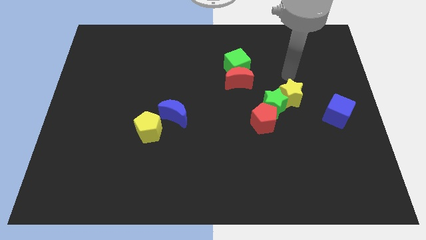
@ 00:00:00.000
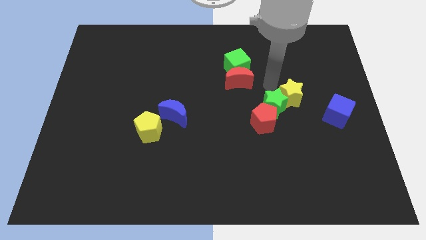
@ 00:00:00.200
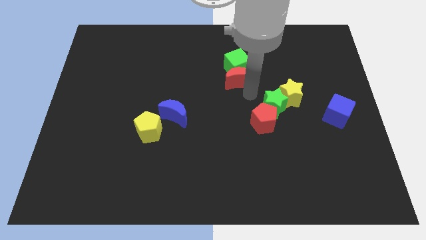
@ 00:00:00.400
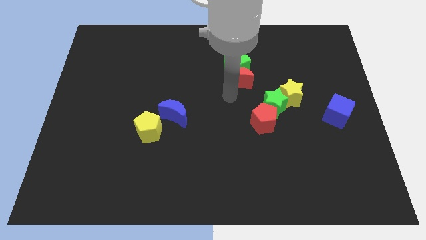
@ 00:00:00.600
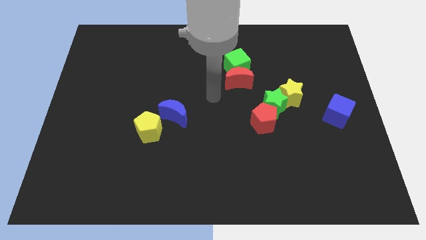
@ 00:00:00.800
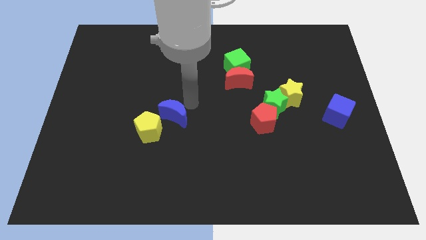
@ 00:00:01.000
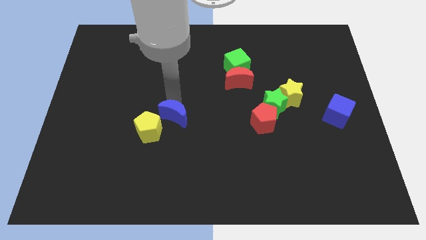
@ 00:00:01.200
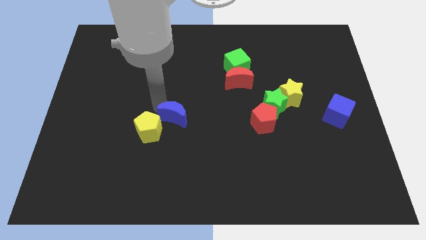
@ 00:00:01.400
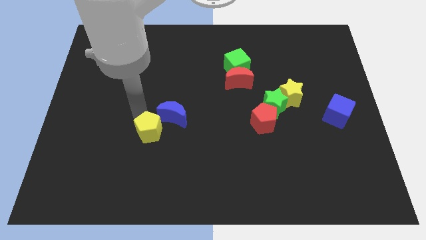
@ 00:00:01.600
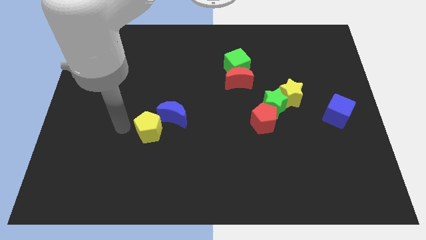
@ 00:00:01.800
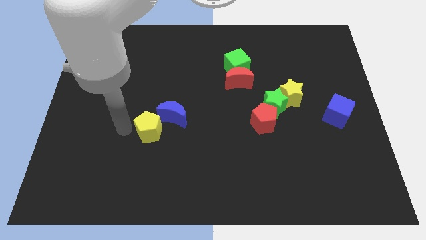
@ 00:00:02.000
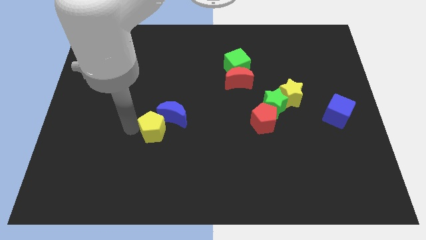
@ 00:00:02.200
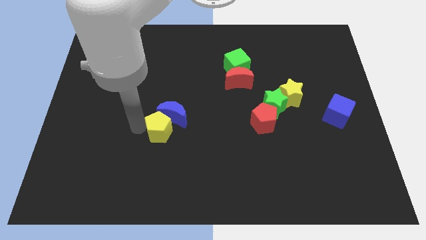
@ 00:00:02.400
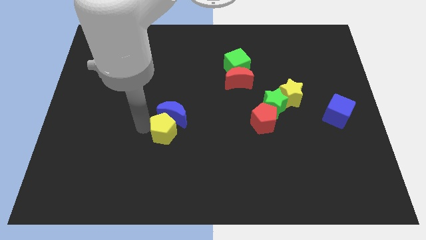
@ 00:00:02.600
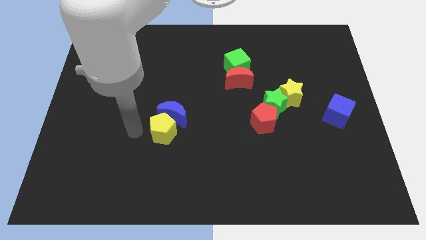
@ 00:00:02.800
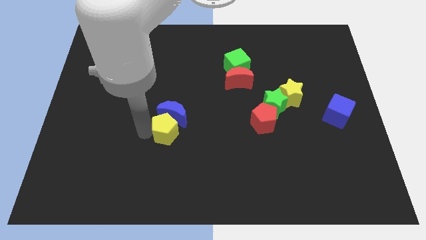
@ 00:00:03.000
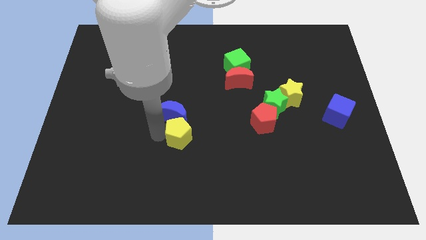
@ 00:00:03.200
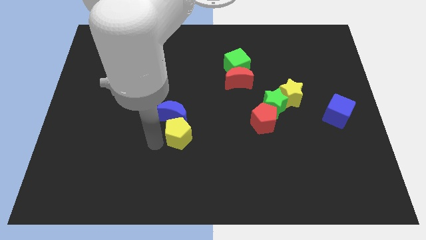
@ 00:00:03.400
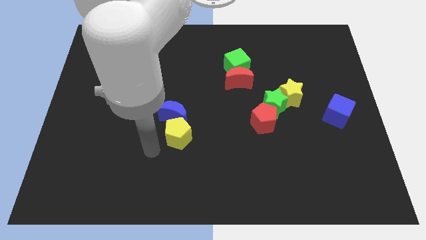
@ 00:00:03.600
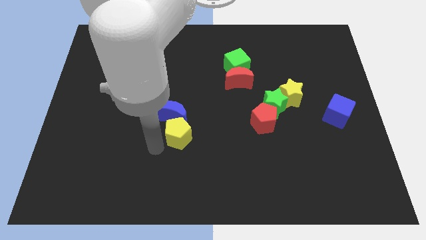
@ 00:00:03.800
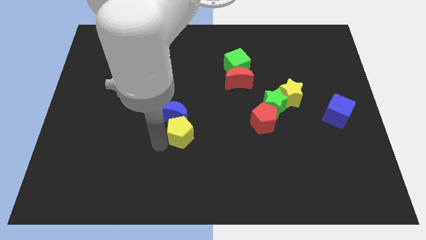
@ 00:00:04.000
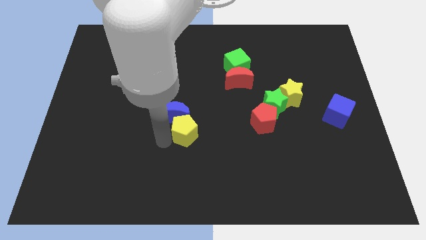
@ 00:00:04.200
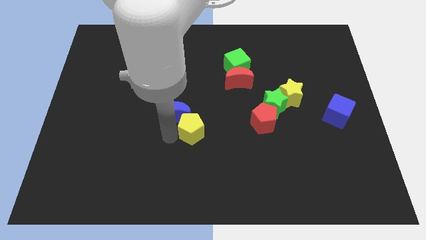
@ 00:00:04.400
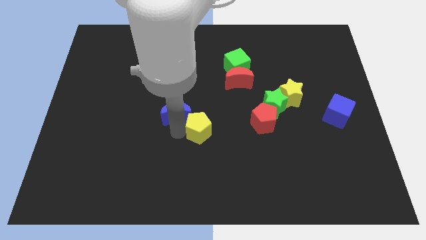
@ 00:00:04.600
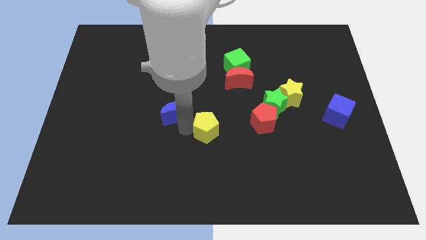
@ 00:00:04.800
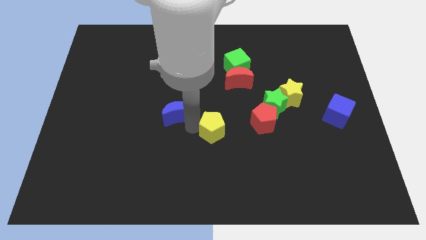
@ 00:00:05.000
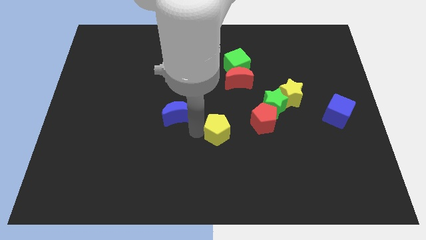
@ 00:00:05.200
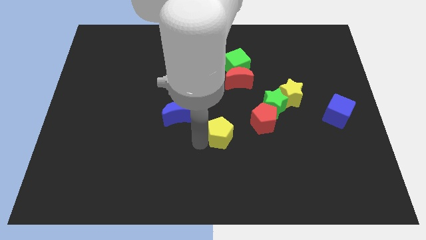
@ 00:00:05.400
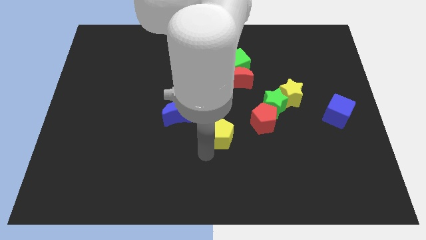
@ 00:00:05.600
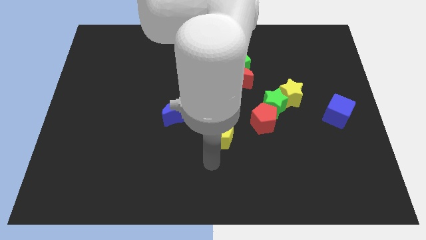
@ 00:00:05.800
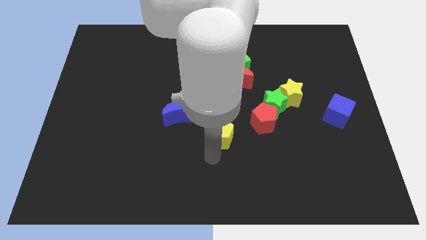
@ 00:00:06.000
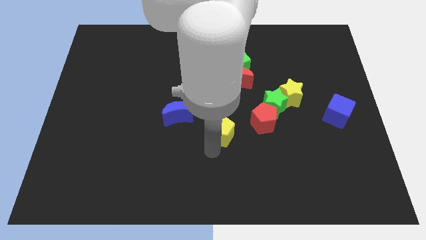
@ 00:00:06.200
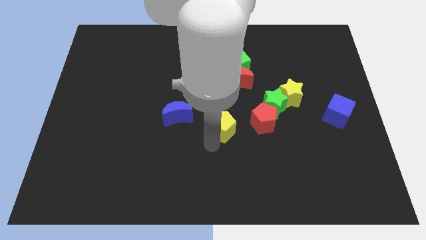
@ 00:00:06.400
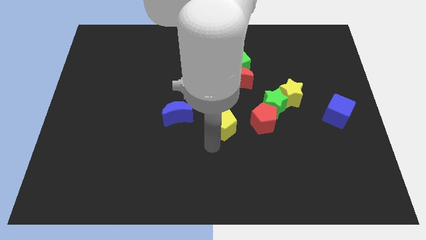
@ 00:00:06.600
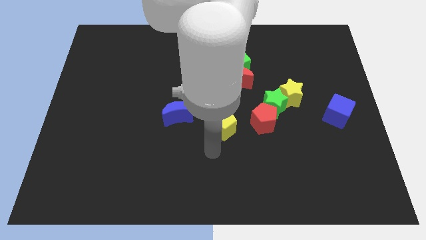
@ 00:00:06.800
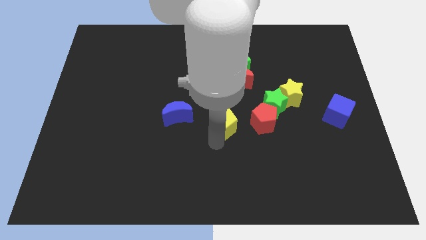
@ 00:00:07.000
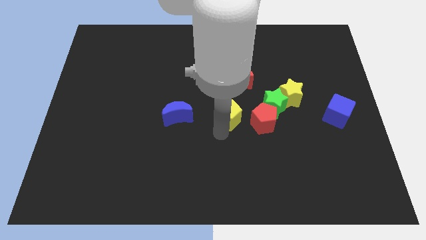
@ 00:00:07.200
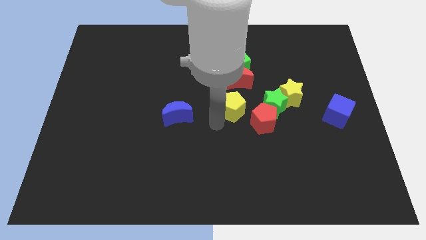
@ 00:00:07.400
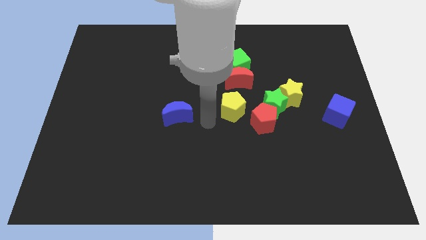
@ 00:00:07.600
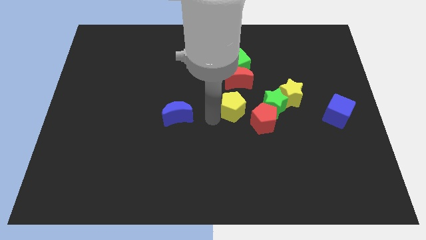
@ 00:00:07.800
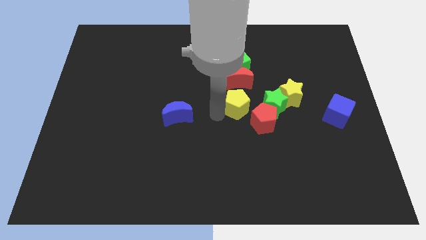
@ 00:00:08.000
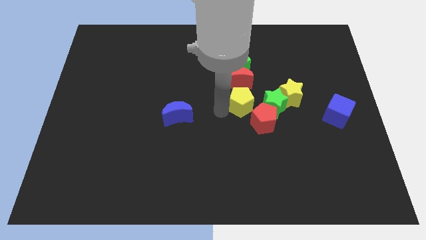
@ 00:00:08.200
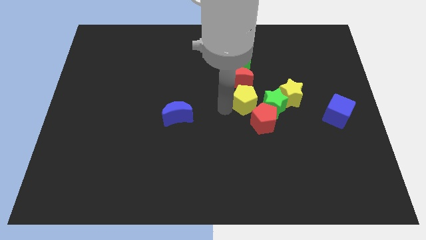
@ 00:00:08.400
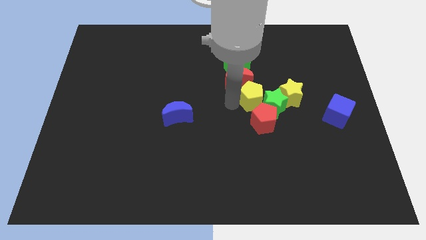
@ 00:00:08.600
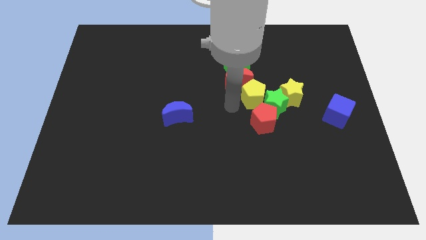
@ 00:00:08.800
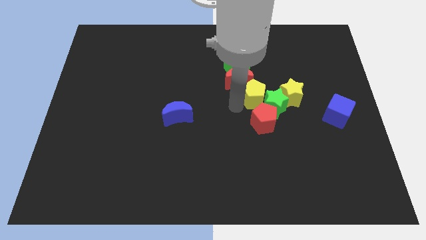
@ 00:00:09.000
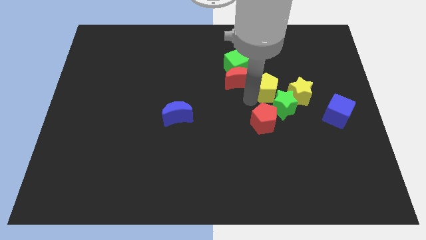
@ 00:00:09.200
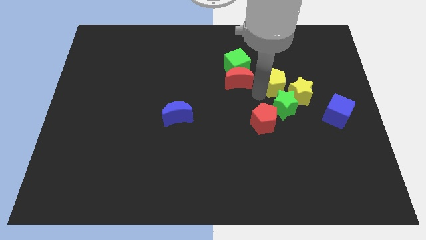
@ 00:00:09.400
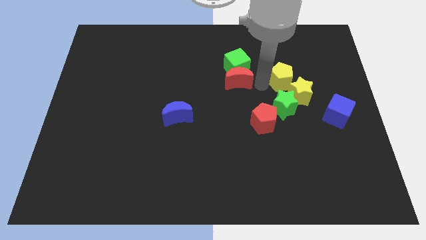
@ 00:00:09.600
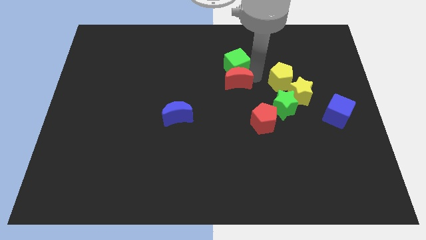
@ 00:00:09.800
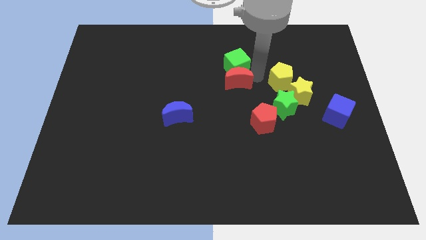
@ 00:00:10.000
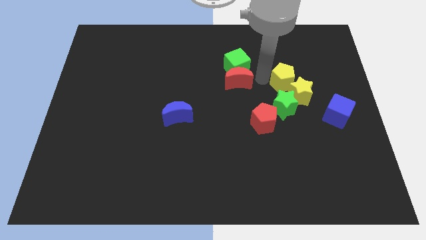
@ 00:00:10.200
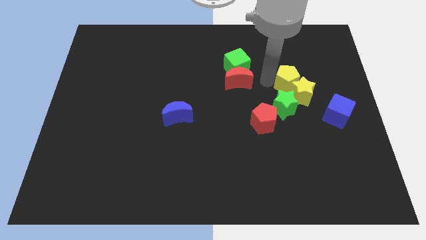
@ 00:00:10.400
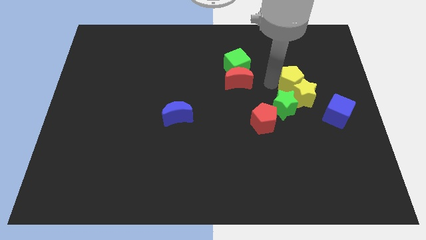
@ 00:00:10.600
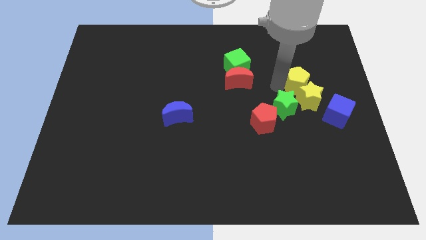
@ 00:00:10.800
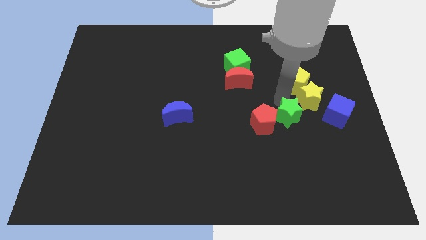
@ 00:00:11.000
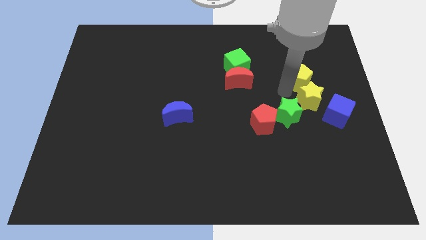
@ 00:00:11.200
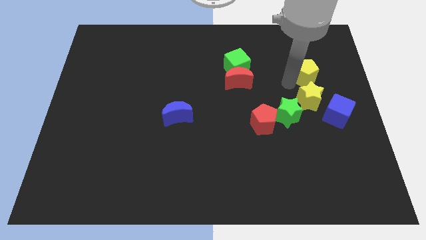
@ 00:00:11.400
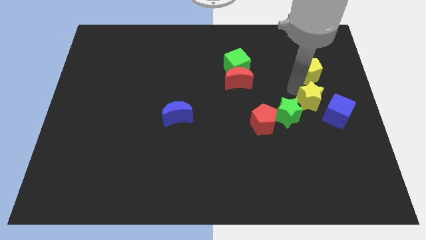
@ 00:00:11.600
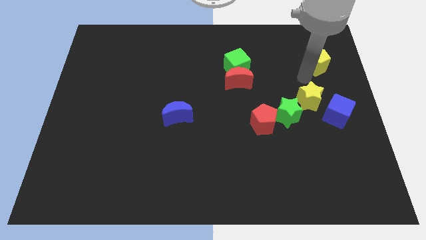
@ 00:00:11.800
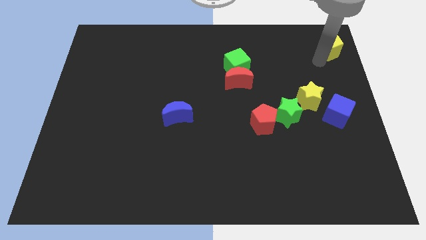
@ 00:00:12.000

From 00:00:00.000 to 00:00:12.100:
slide the yellow pentagon to the top right of the board
